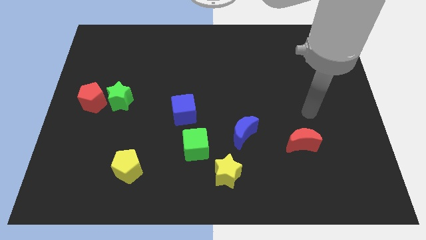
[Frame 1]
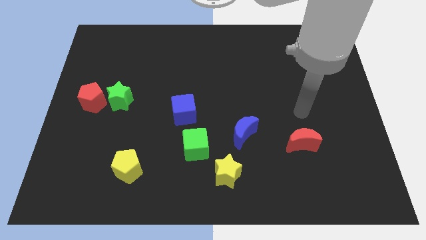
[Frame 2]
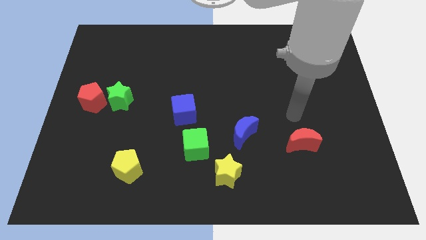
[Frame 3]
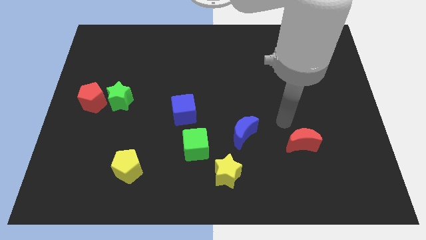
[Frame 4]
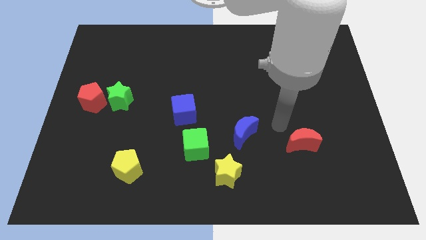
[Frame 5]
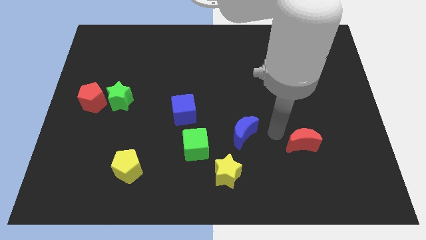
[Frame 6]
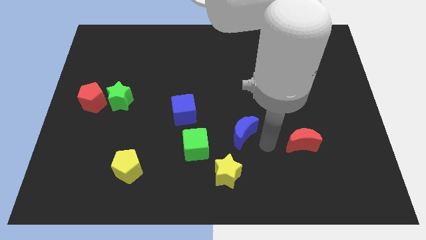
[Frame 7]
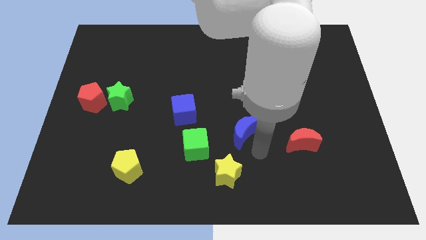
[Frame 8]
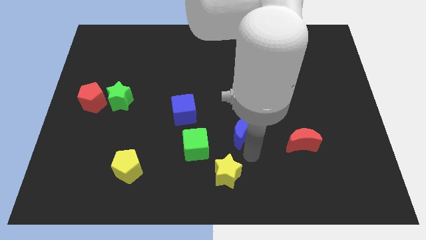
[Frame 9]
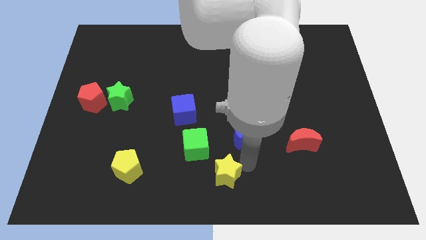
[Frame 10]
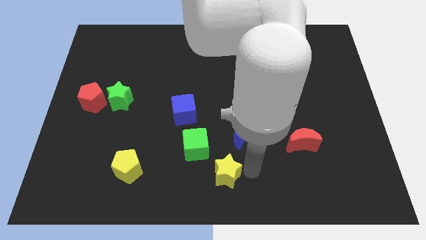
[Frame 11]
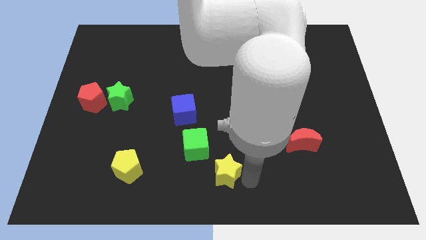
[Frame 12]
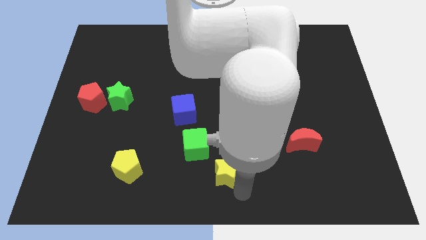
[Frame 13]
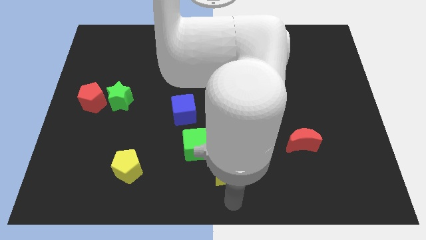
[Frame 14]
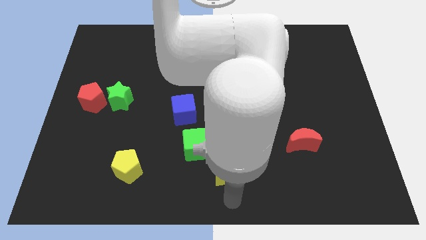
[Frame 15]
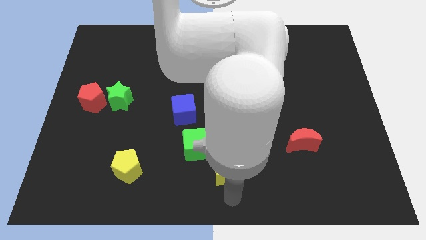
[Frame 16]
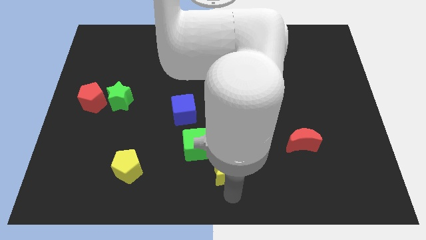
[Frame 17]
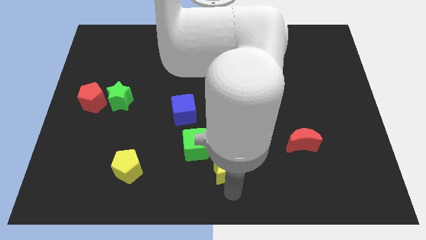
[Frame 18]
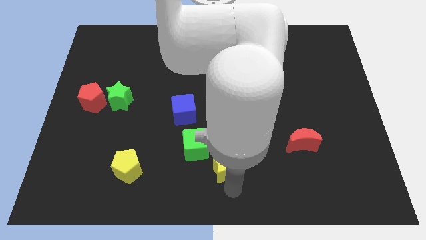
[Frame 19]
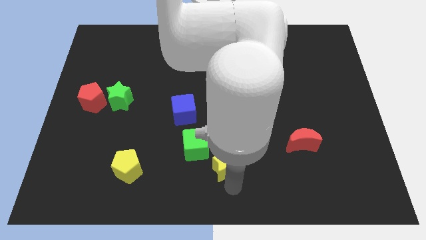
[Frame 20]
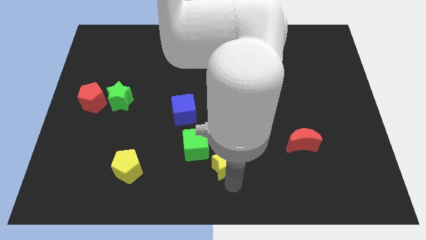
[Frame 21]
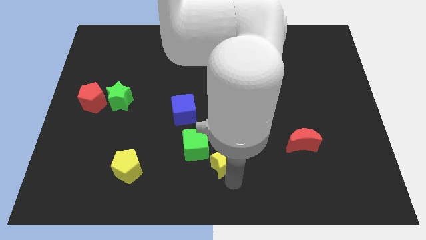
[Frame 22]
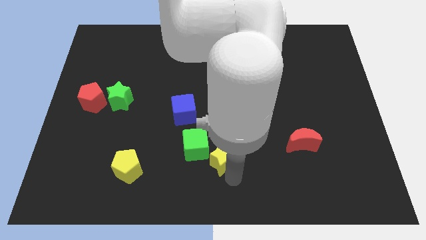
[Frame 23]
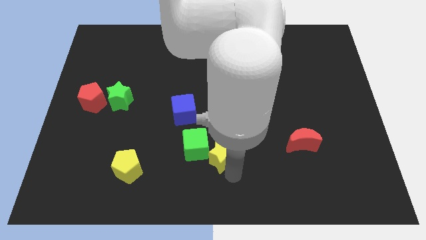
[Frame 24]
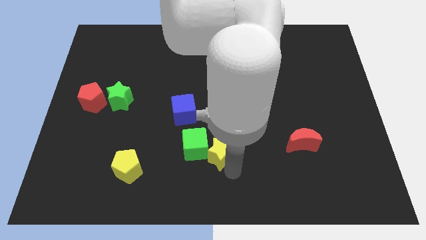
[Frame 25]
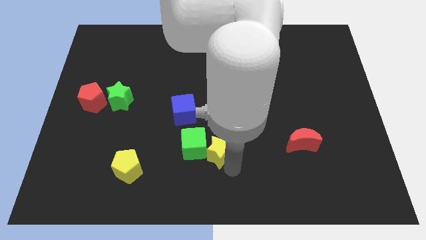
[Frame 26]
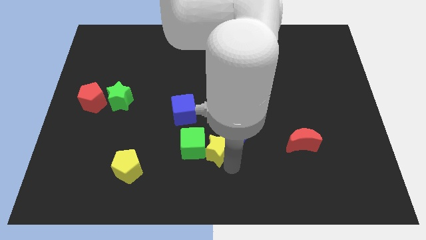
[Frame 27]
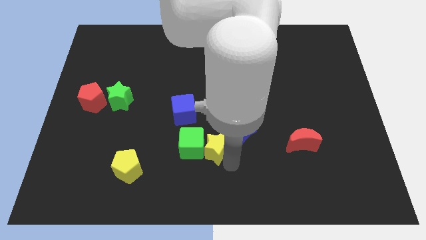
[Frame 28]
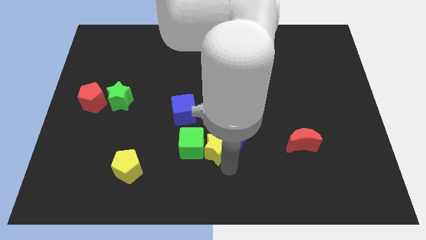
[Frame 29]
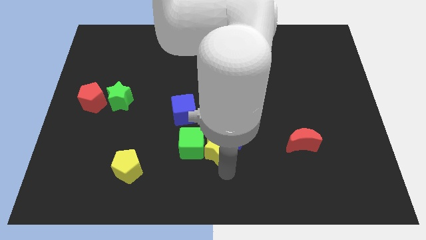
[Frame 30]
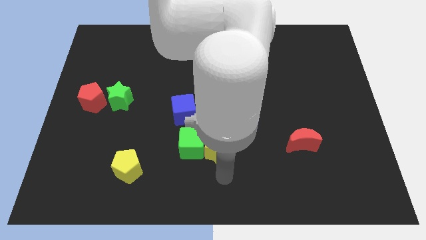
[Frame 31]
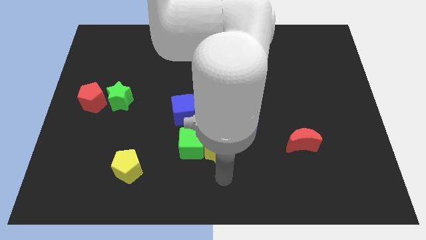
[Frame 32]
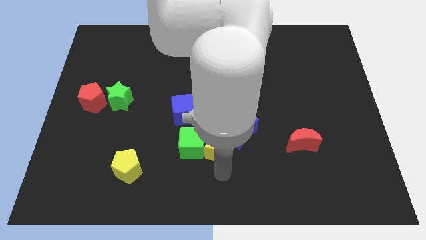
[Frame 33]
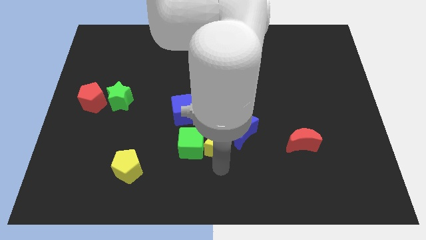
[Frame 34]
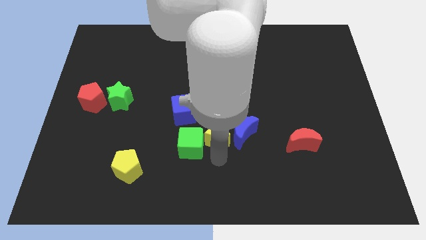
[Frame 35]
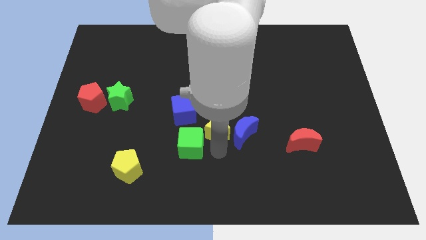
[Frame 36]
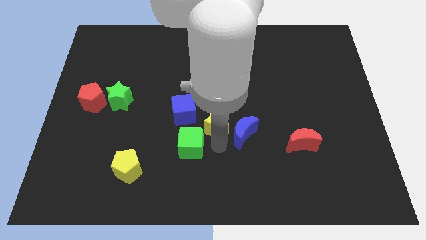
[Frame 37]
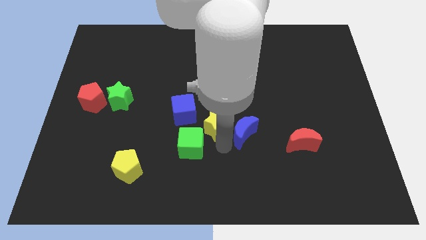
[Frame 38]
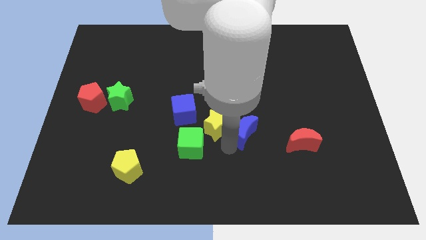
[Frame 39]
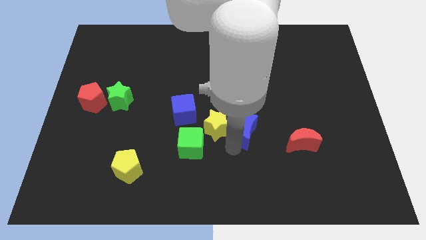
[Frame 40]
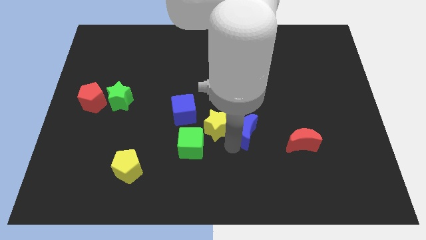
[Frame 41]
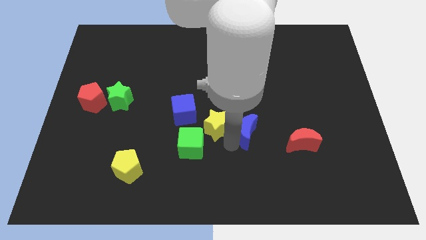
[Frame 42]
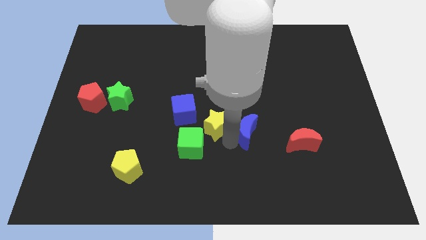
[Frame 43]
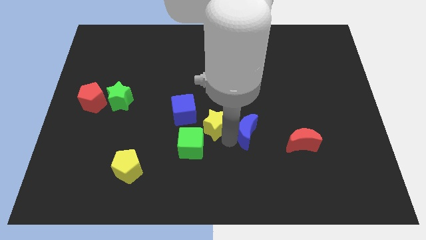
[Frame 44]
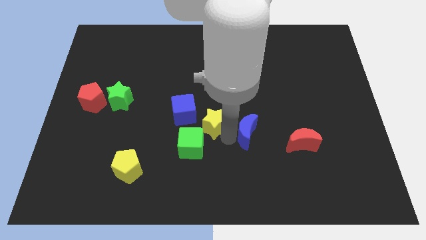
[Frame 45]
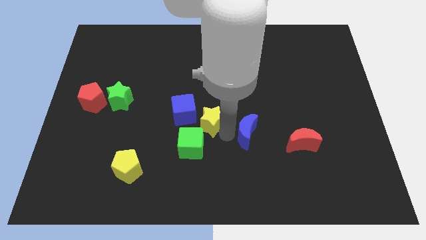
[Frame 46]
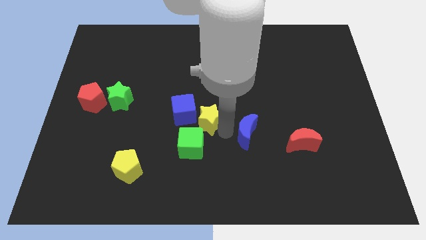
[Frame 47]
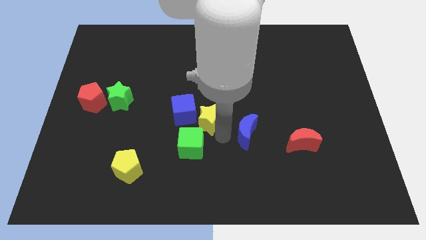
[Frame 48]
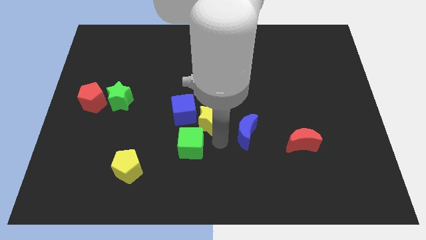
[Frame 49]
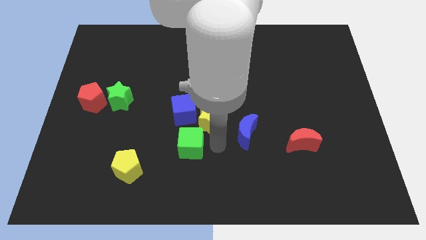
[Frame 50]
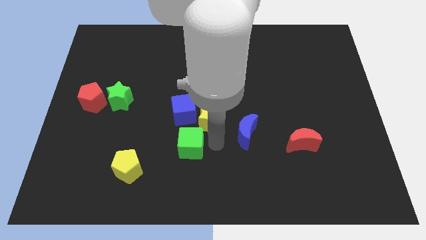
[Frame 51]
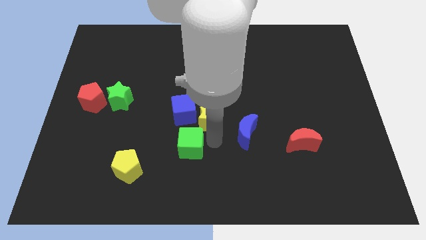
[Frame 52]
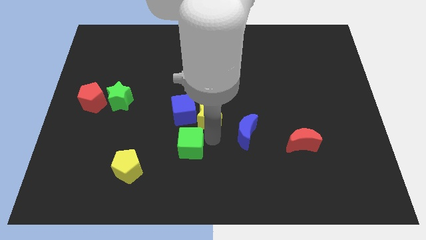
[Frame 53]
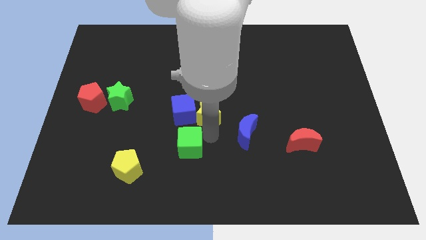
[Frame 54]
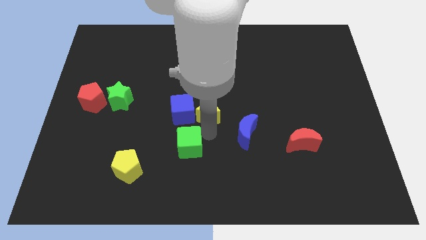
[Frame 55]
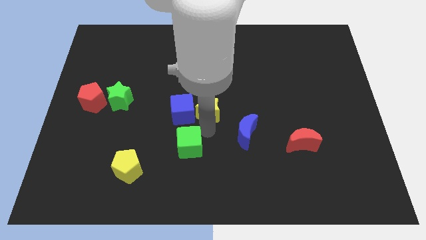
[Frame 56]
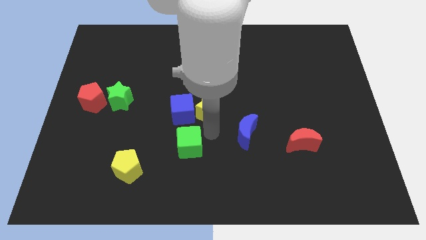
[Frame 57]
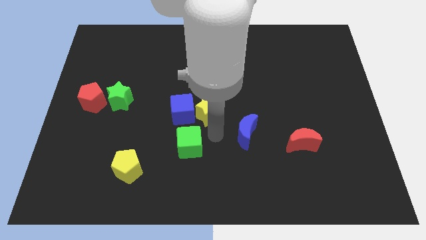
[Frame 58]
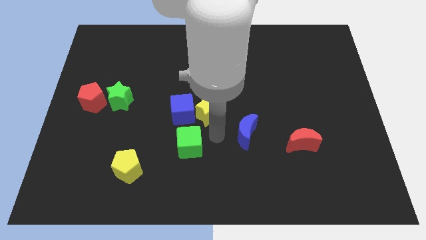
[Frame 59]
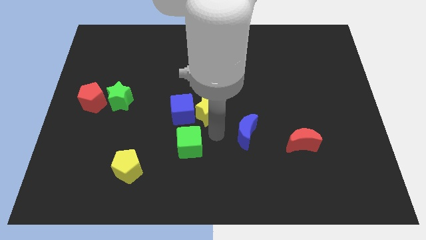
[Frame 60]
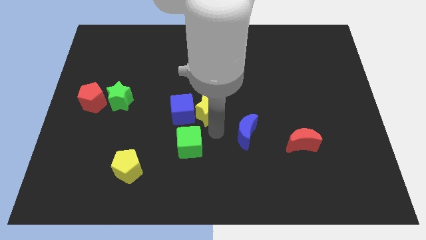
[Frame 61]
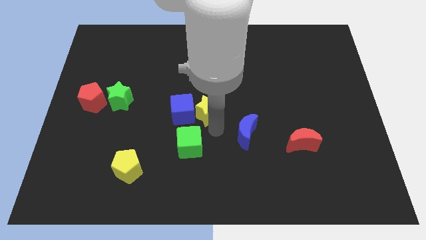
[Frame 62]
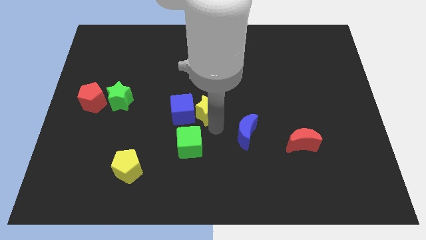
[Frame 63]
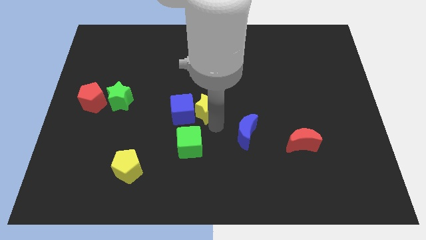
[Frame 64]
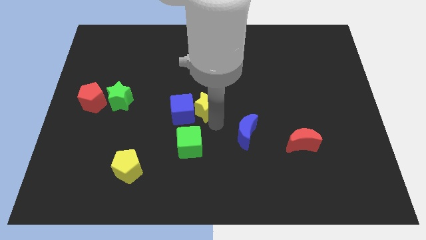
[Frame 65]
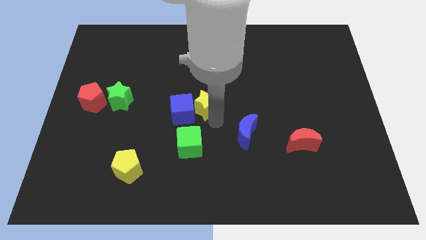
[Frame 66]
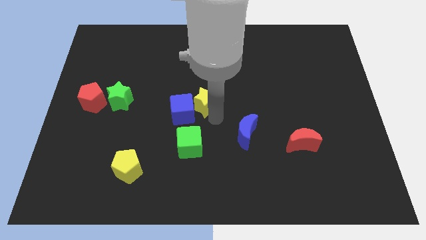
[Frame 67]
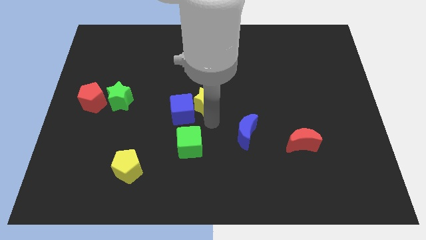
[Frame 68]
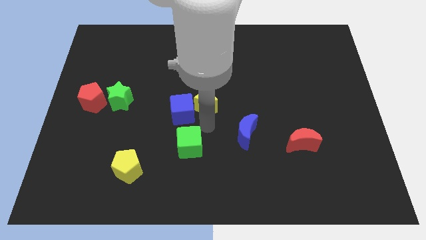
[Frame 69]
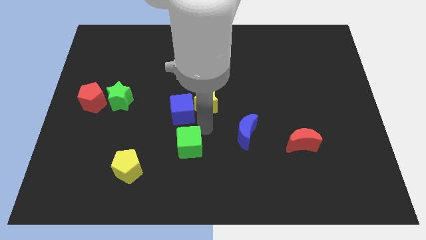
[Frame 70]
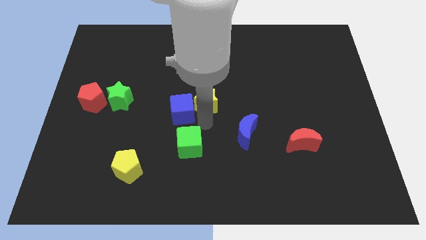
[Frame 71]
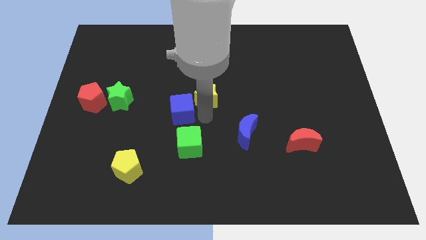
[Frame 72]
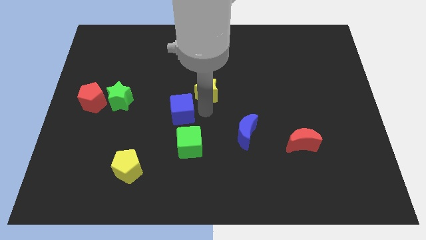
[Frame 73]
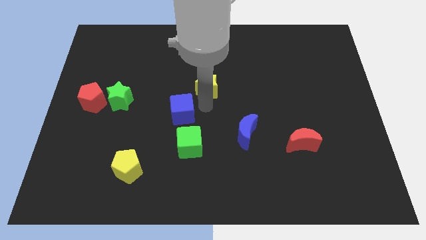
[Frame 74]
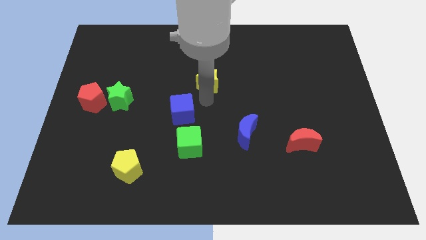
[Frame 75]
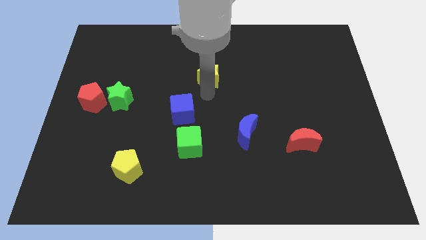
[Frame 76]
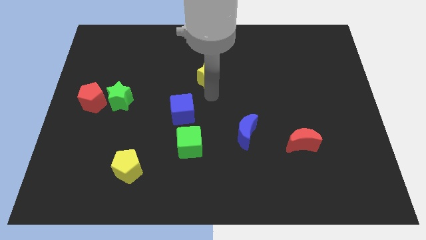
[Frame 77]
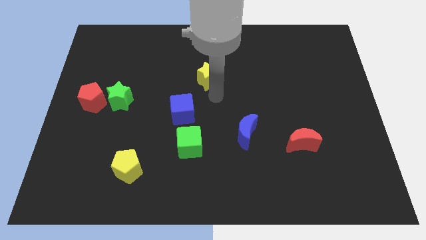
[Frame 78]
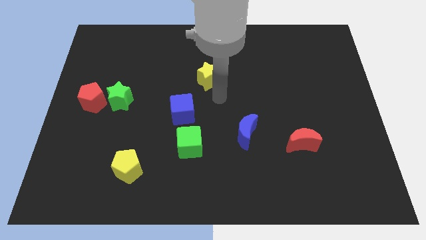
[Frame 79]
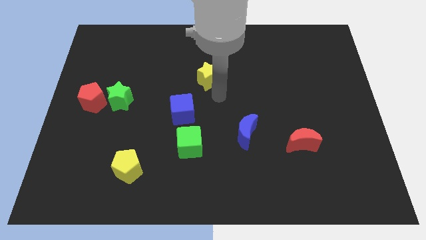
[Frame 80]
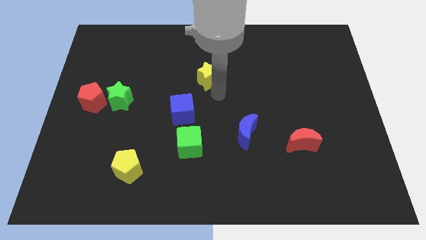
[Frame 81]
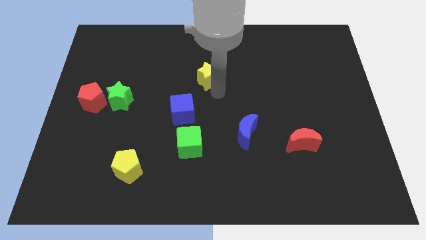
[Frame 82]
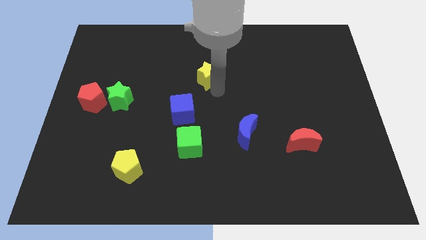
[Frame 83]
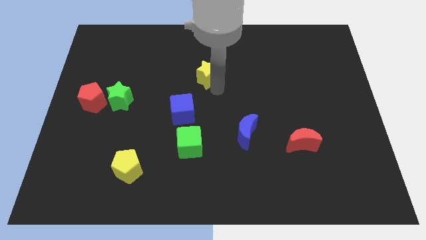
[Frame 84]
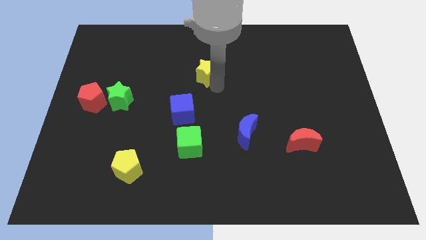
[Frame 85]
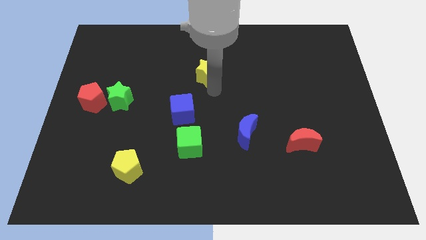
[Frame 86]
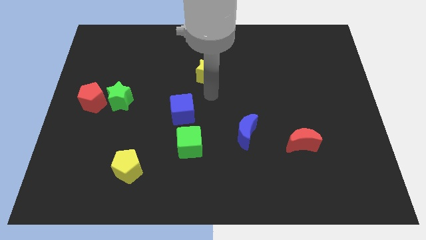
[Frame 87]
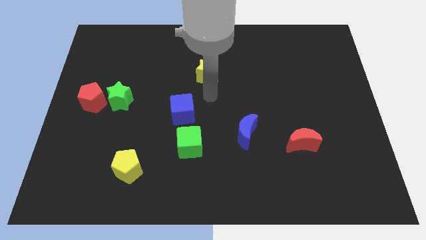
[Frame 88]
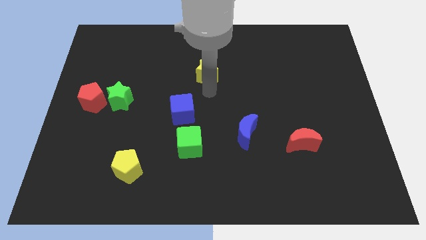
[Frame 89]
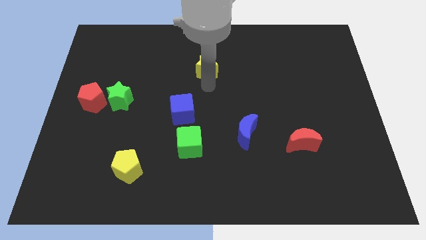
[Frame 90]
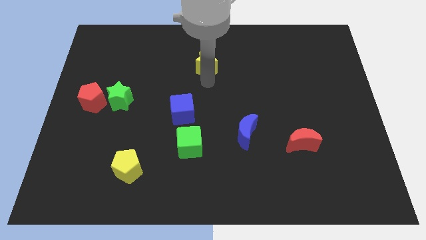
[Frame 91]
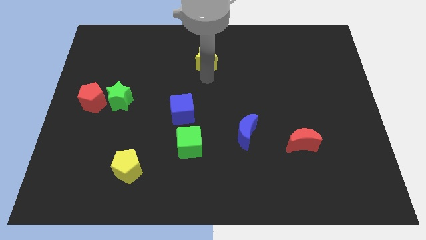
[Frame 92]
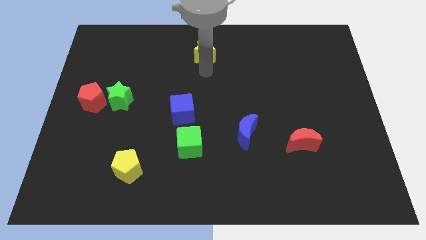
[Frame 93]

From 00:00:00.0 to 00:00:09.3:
put the yellow star to the towards your base
